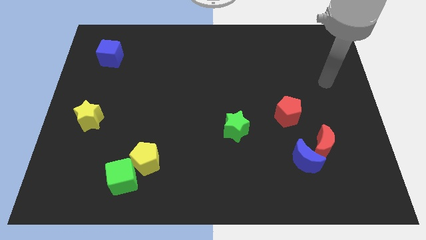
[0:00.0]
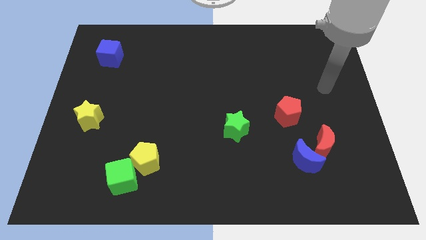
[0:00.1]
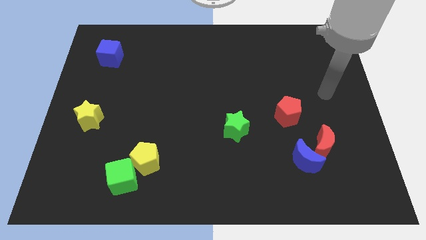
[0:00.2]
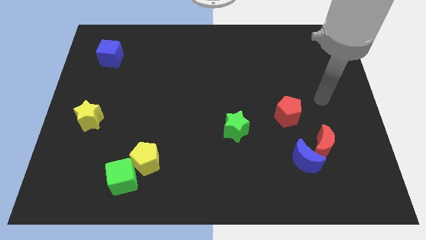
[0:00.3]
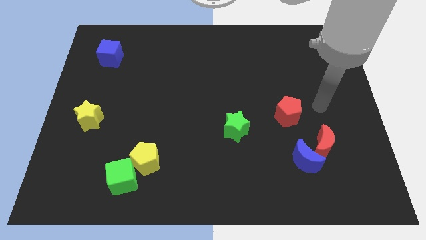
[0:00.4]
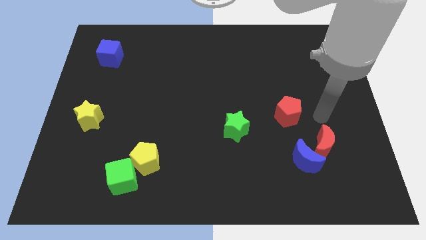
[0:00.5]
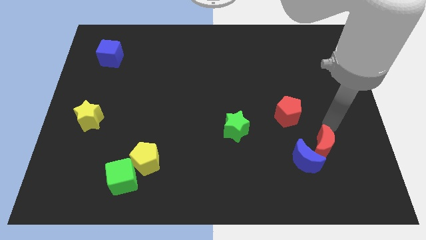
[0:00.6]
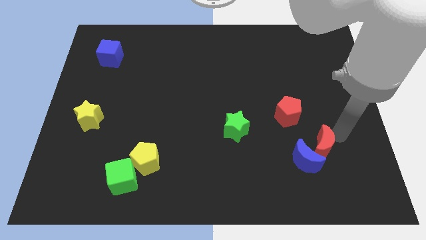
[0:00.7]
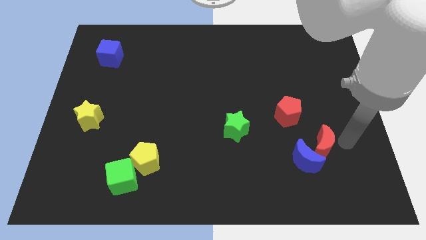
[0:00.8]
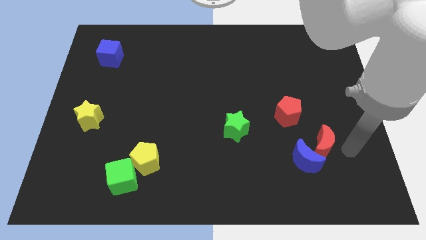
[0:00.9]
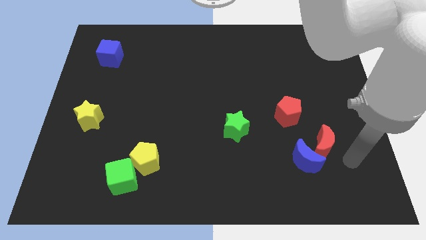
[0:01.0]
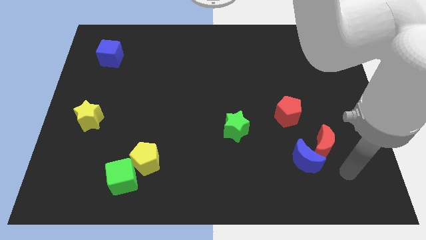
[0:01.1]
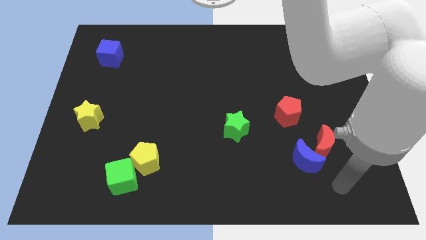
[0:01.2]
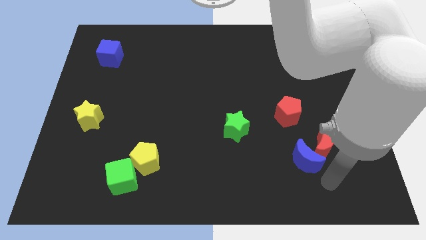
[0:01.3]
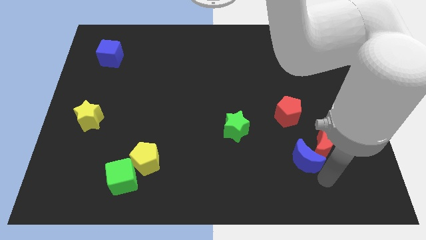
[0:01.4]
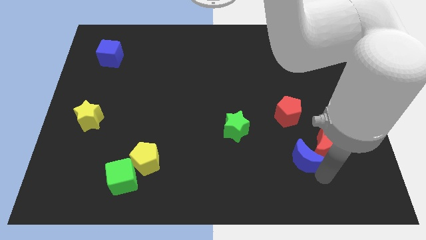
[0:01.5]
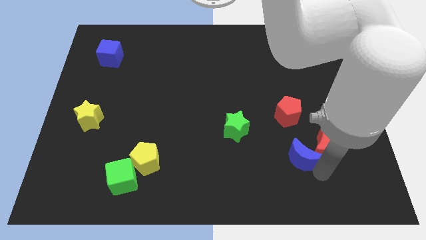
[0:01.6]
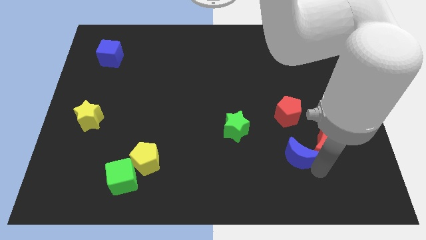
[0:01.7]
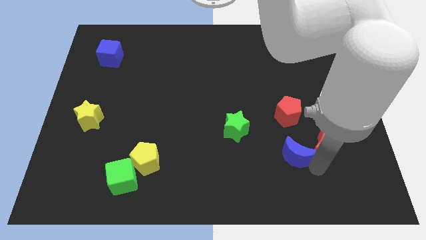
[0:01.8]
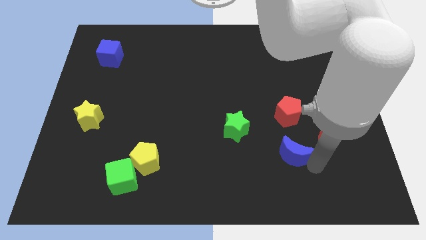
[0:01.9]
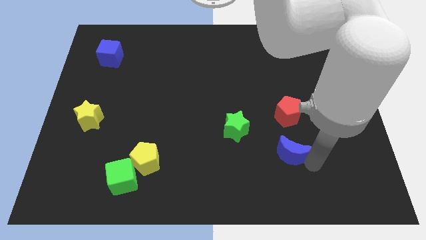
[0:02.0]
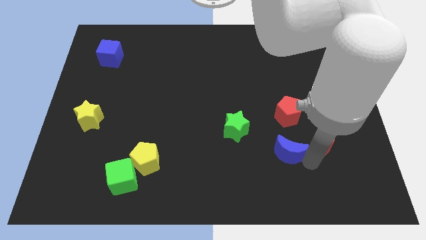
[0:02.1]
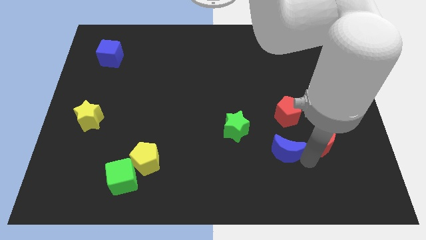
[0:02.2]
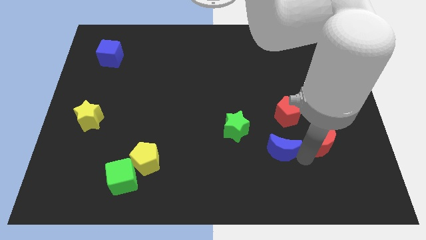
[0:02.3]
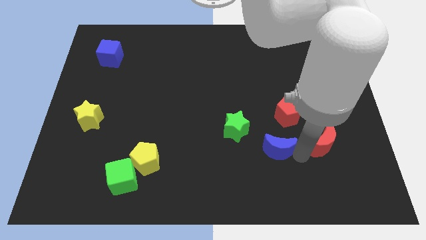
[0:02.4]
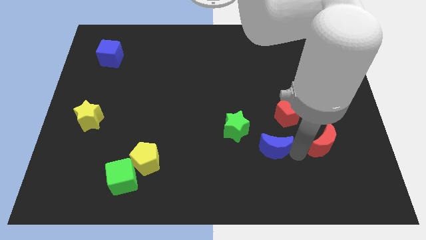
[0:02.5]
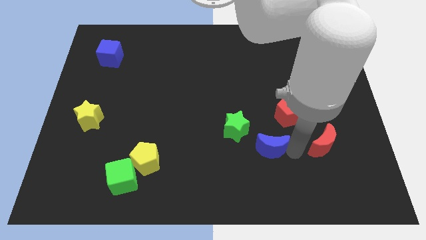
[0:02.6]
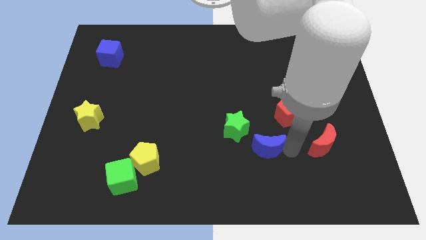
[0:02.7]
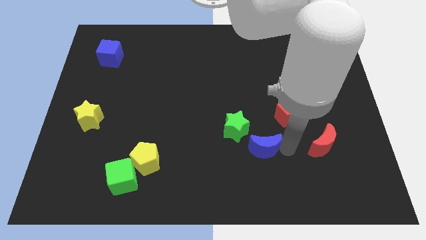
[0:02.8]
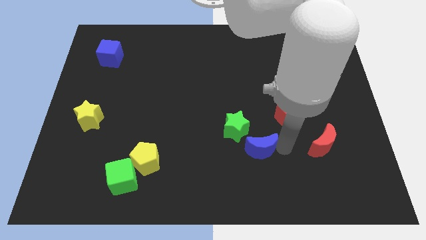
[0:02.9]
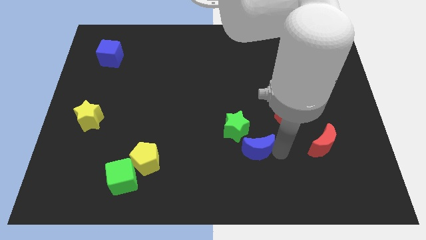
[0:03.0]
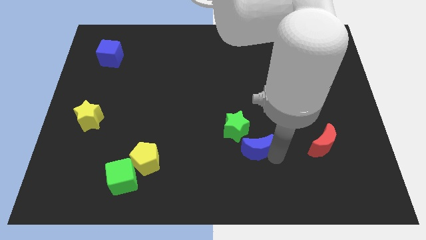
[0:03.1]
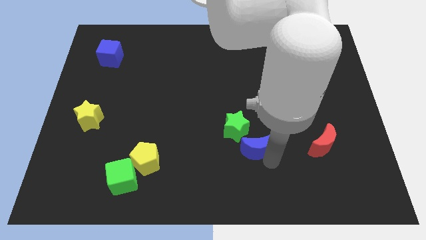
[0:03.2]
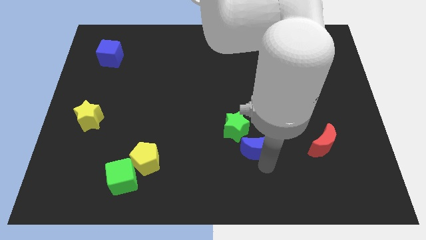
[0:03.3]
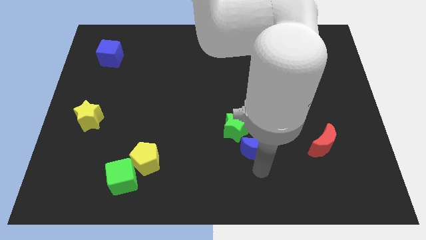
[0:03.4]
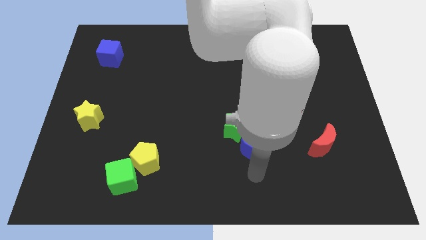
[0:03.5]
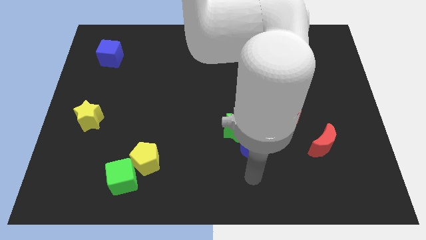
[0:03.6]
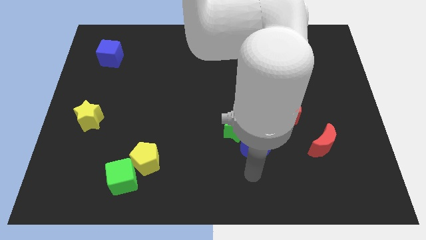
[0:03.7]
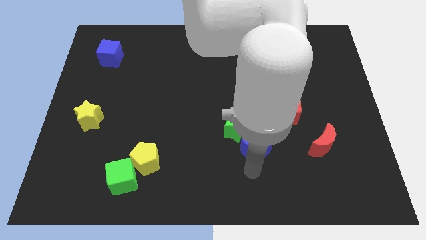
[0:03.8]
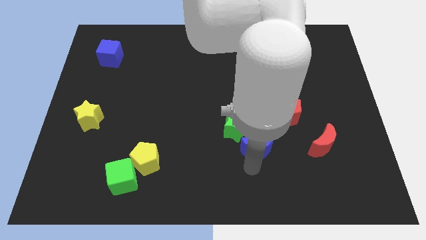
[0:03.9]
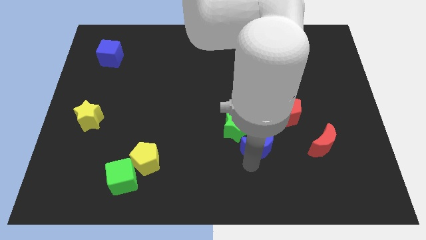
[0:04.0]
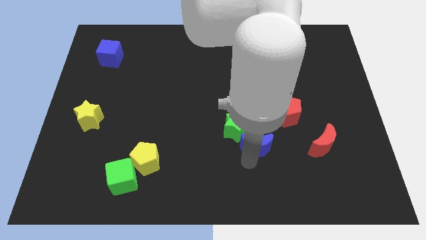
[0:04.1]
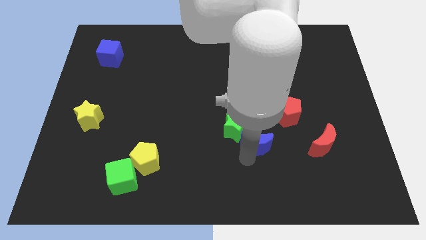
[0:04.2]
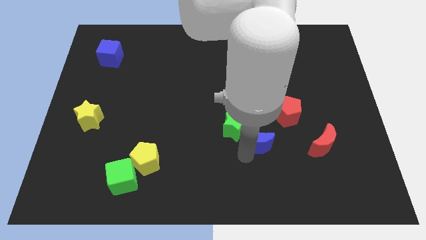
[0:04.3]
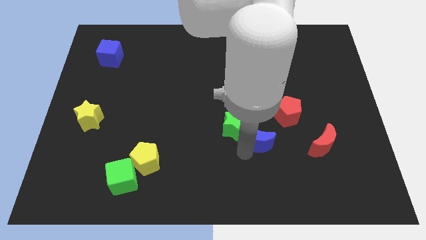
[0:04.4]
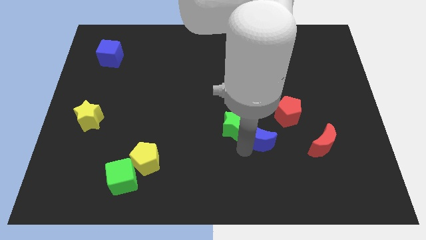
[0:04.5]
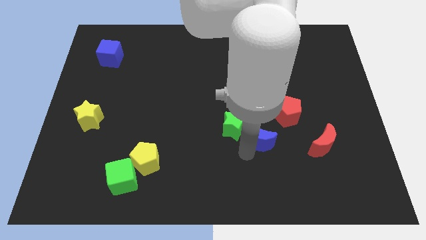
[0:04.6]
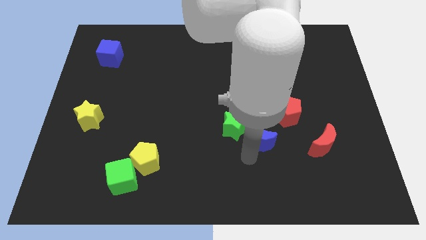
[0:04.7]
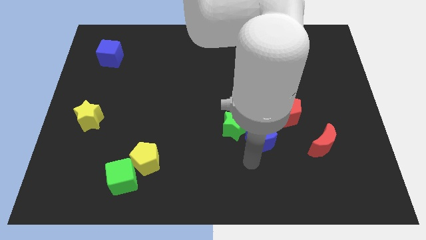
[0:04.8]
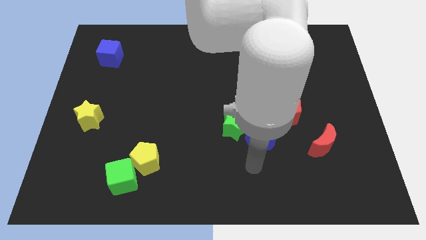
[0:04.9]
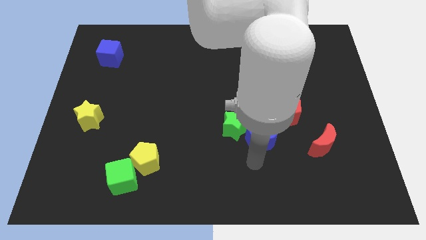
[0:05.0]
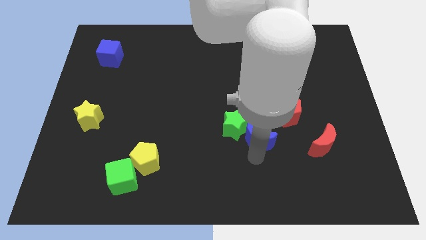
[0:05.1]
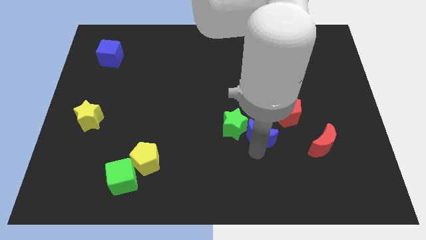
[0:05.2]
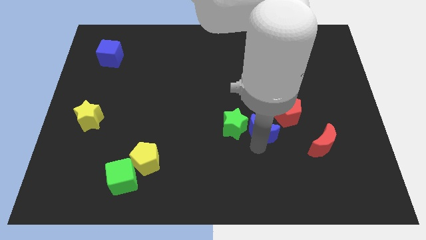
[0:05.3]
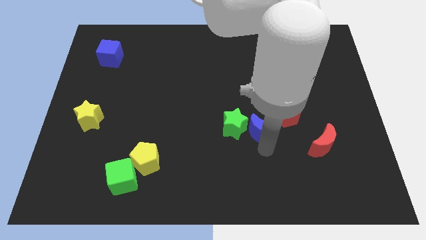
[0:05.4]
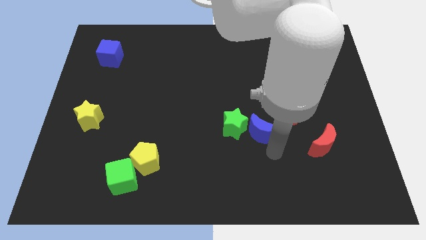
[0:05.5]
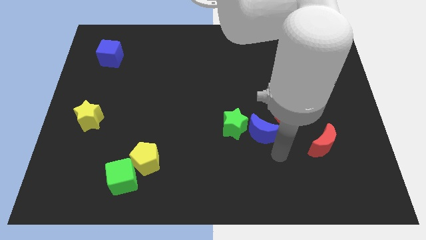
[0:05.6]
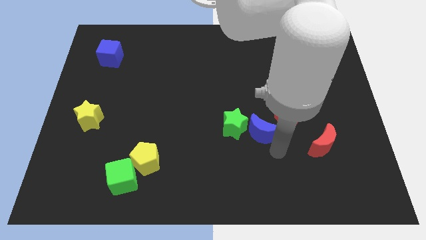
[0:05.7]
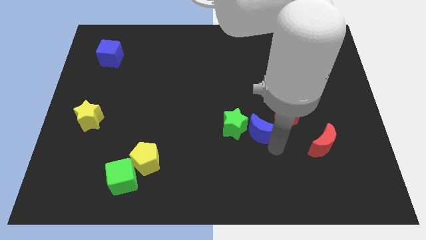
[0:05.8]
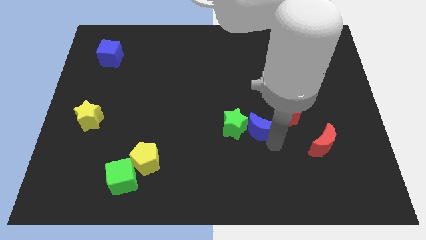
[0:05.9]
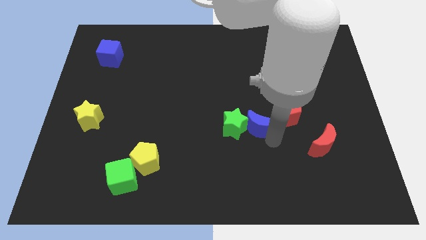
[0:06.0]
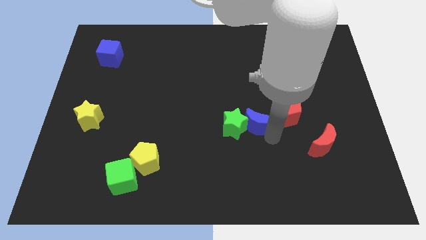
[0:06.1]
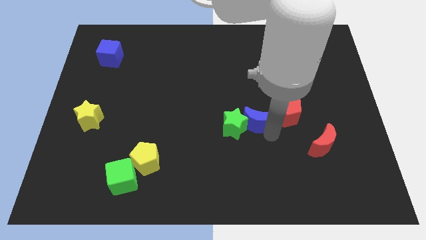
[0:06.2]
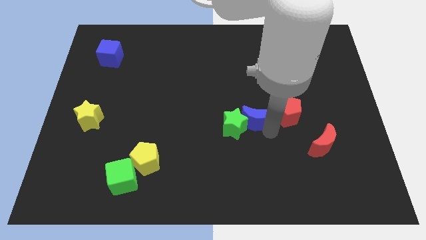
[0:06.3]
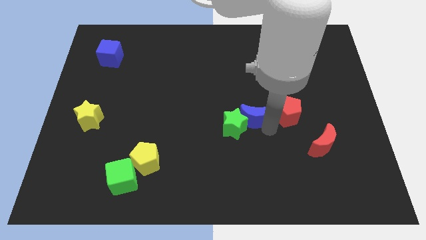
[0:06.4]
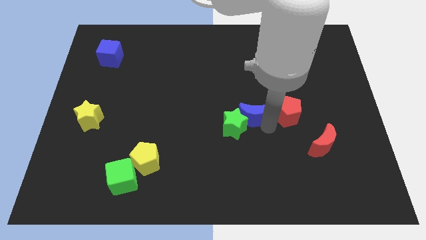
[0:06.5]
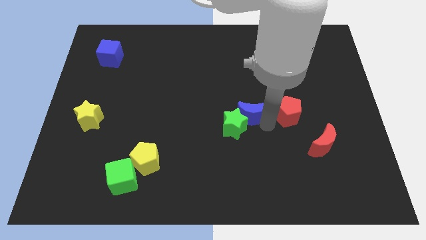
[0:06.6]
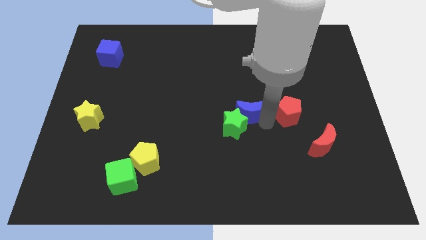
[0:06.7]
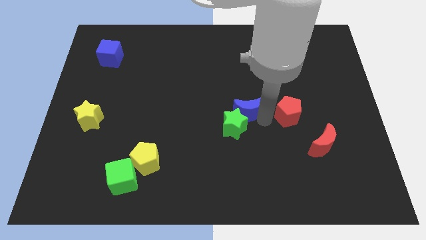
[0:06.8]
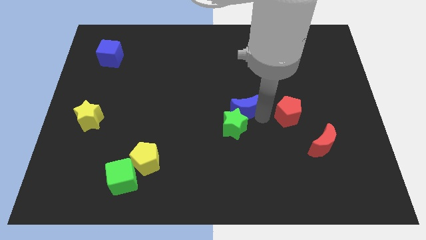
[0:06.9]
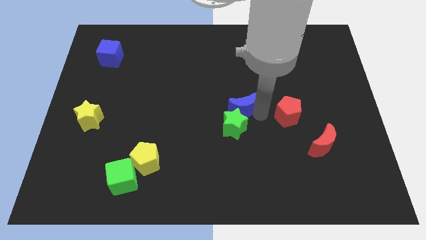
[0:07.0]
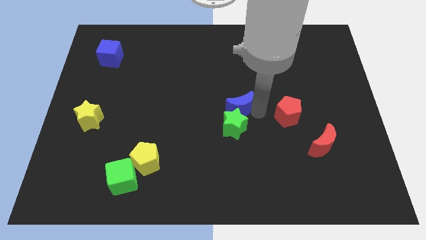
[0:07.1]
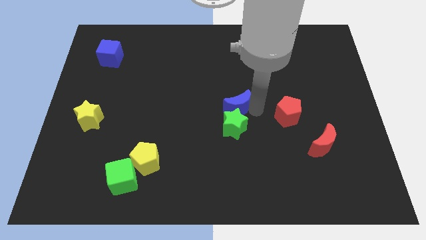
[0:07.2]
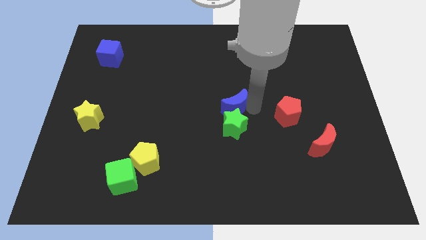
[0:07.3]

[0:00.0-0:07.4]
slide the blue moon upwards and to the left diagonally

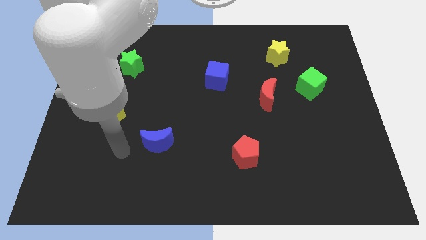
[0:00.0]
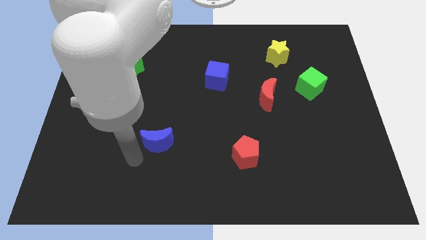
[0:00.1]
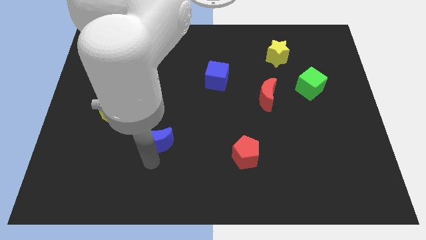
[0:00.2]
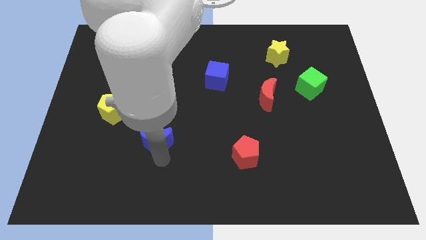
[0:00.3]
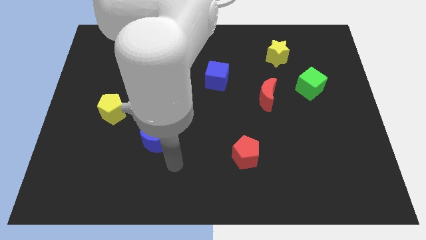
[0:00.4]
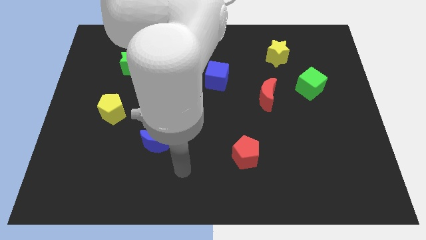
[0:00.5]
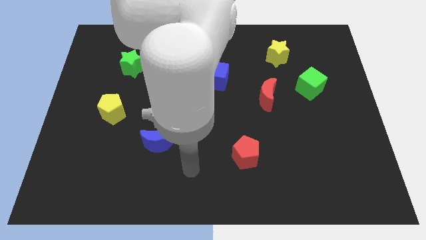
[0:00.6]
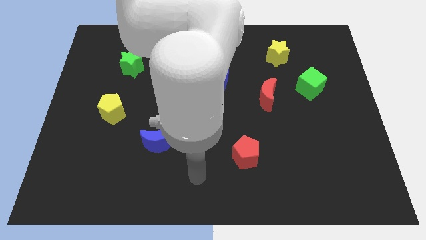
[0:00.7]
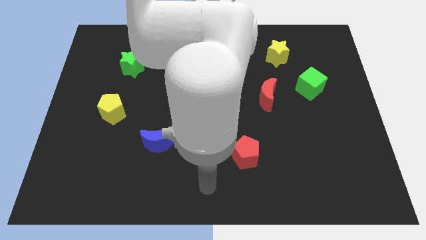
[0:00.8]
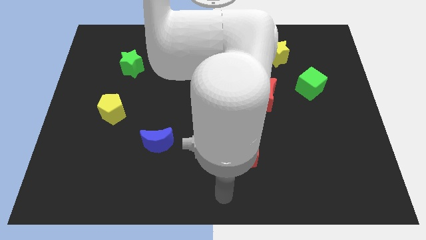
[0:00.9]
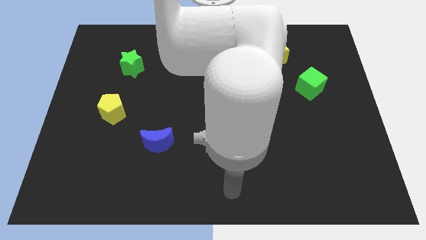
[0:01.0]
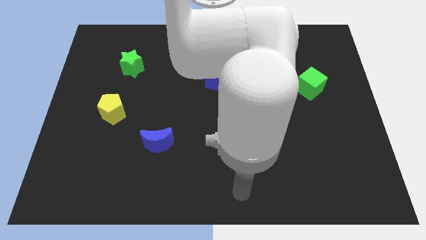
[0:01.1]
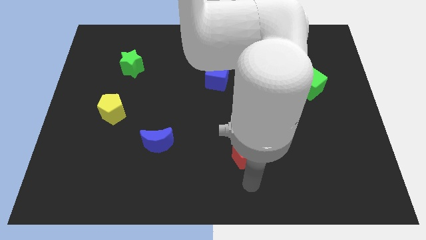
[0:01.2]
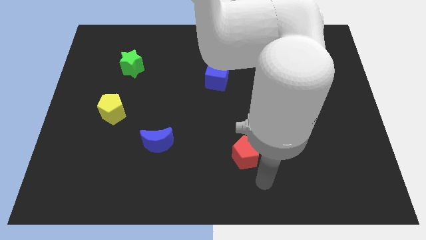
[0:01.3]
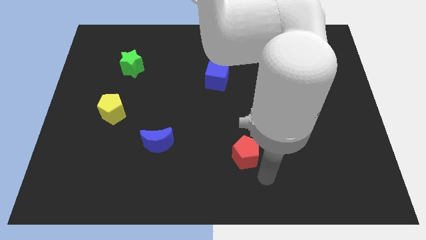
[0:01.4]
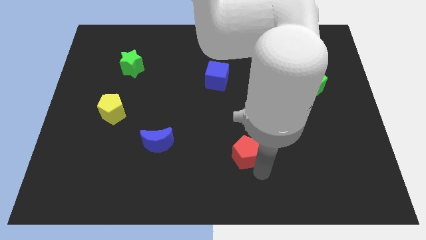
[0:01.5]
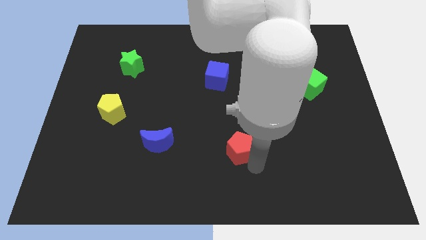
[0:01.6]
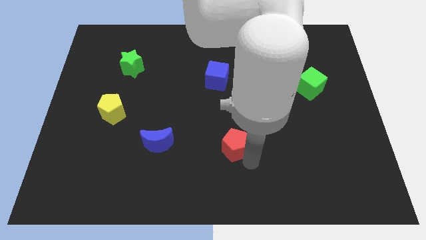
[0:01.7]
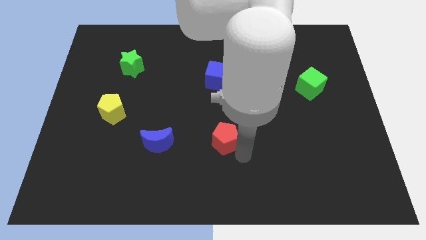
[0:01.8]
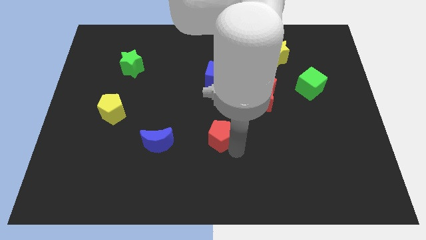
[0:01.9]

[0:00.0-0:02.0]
move the red pentagon up and left a little
